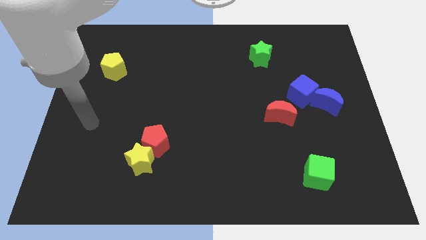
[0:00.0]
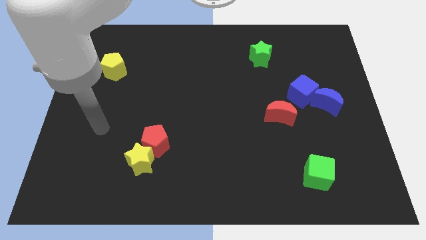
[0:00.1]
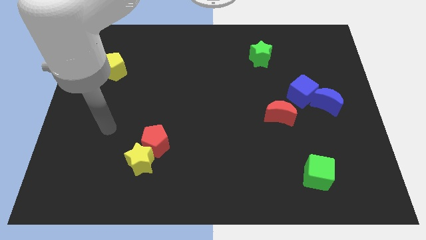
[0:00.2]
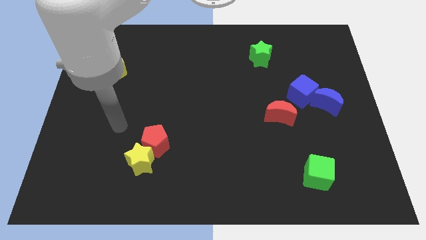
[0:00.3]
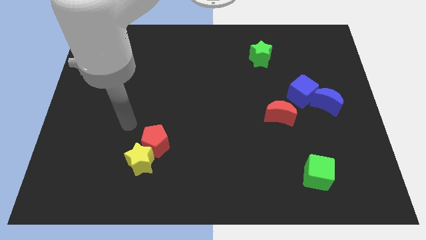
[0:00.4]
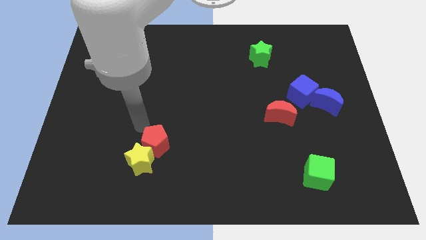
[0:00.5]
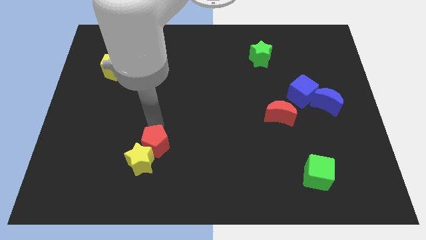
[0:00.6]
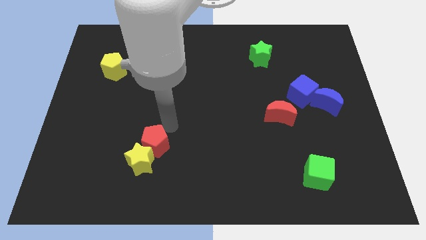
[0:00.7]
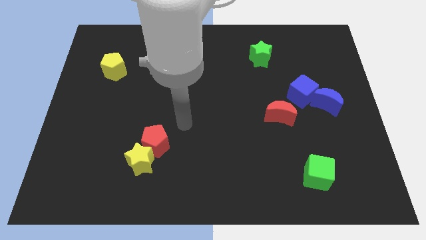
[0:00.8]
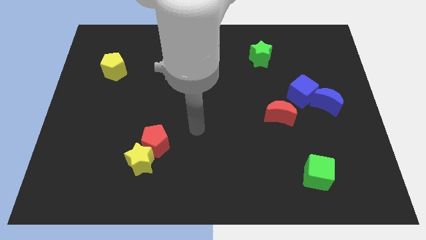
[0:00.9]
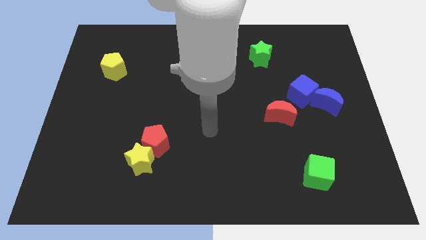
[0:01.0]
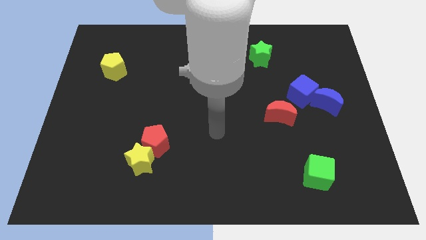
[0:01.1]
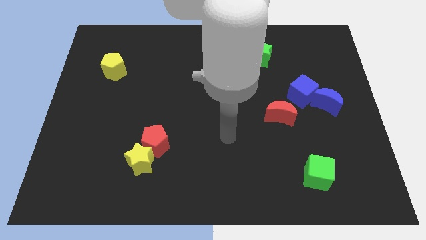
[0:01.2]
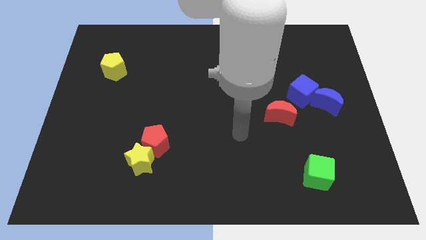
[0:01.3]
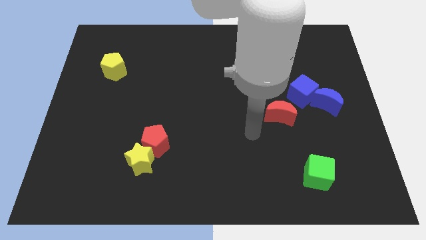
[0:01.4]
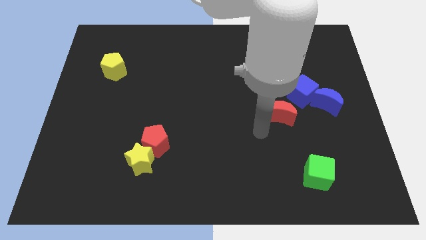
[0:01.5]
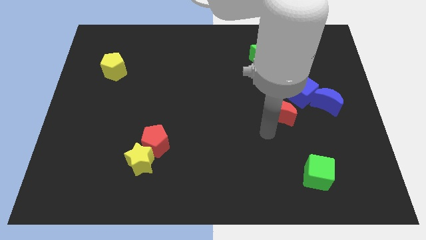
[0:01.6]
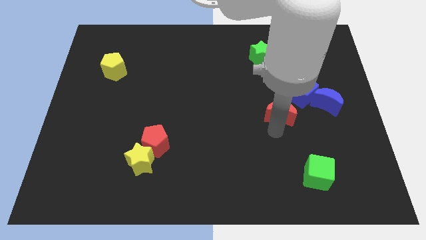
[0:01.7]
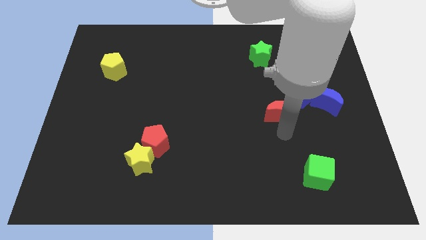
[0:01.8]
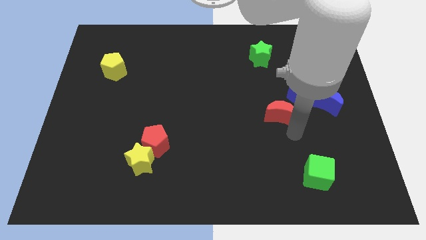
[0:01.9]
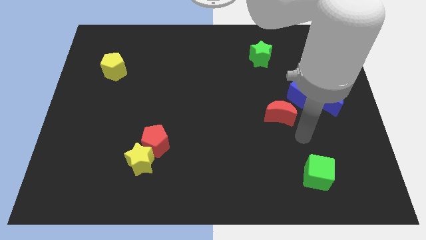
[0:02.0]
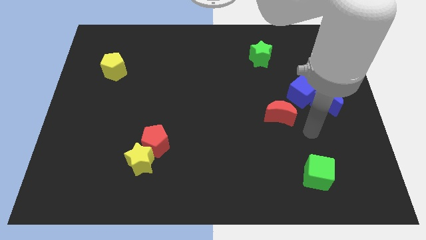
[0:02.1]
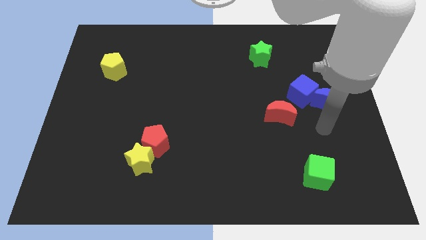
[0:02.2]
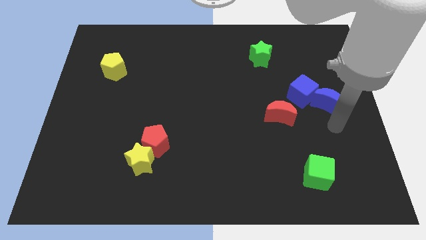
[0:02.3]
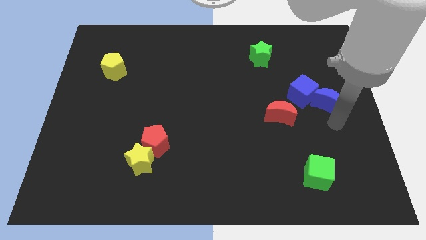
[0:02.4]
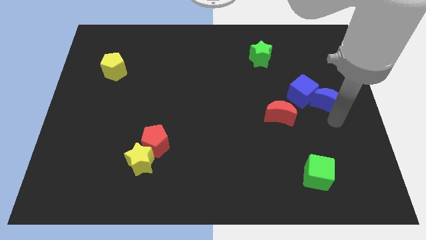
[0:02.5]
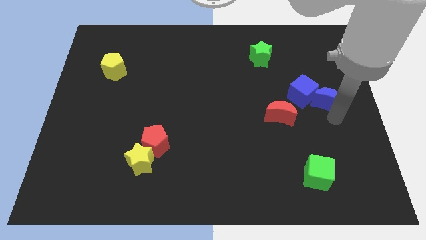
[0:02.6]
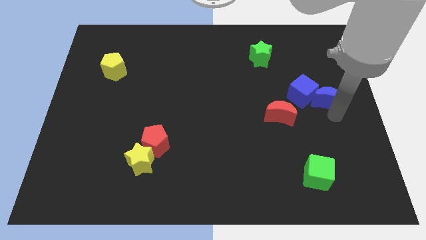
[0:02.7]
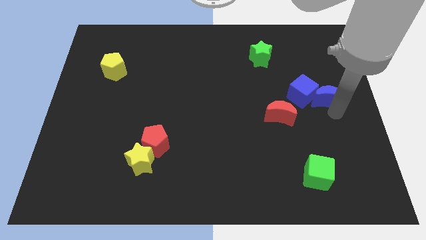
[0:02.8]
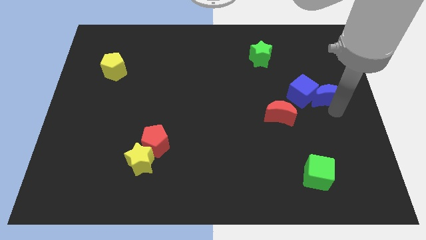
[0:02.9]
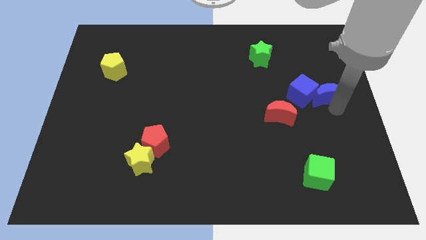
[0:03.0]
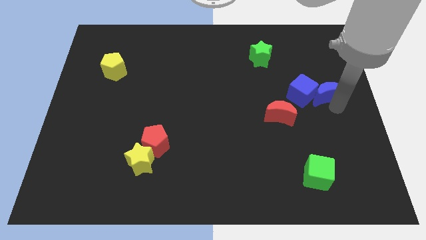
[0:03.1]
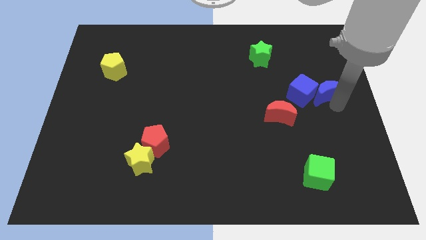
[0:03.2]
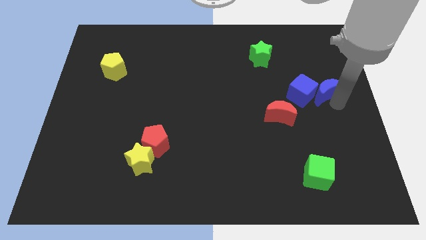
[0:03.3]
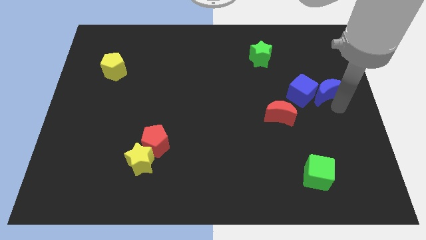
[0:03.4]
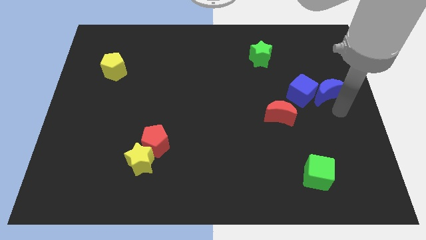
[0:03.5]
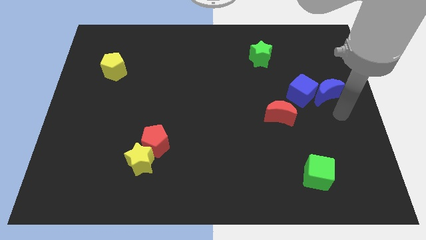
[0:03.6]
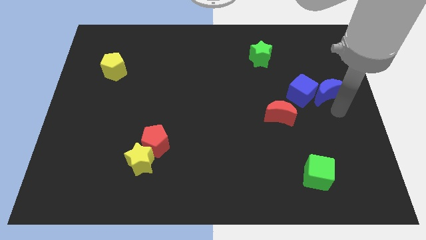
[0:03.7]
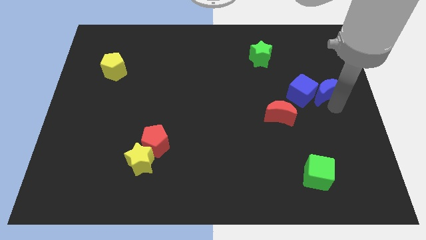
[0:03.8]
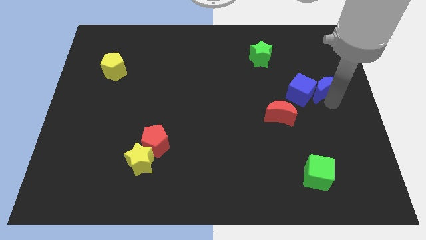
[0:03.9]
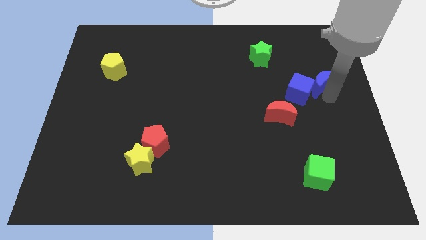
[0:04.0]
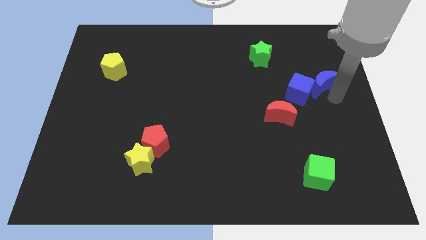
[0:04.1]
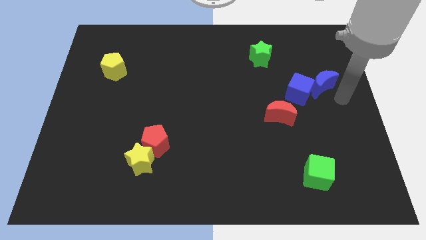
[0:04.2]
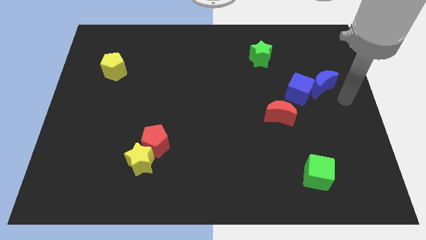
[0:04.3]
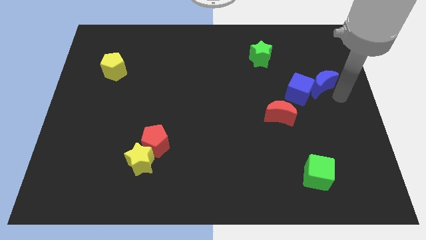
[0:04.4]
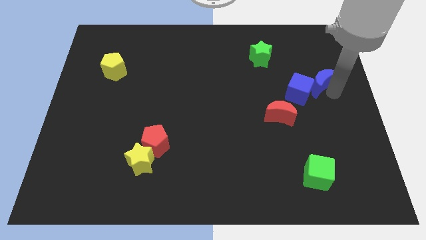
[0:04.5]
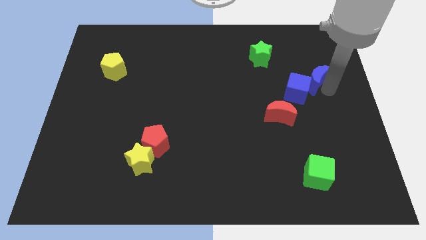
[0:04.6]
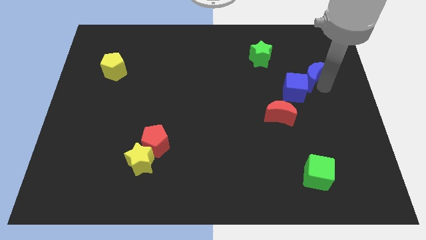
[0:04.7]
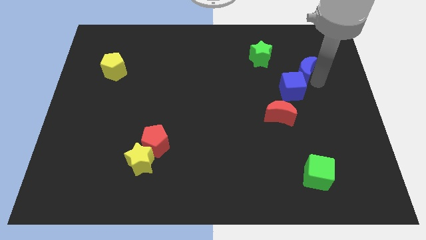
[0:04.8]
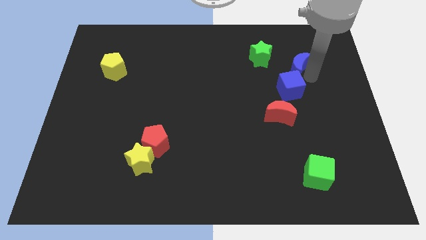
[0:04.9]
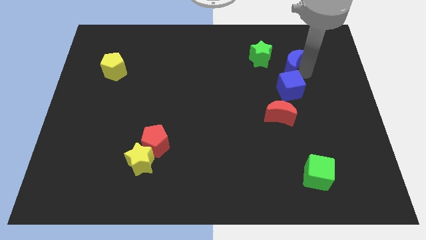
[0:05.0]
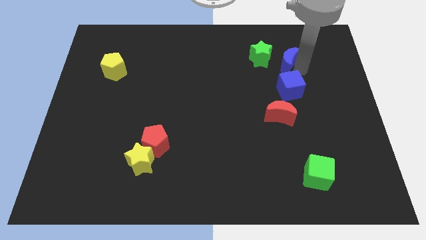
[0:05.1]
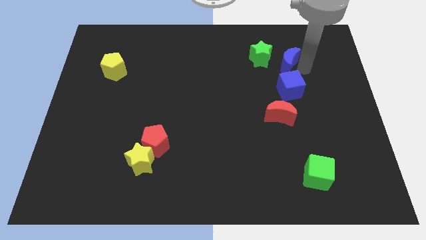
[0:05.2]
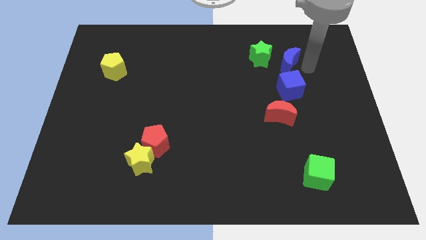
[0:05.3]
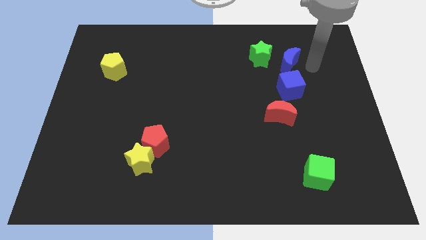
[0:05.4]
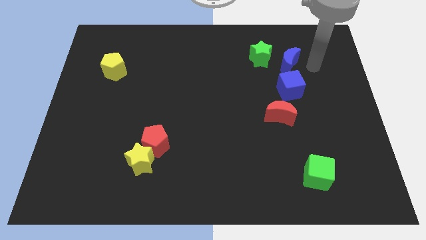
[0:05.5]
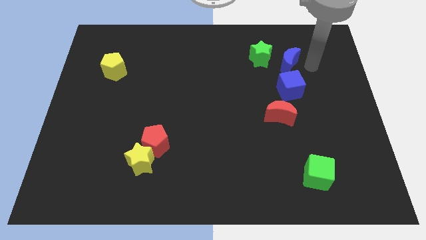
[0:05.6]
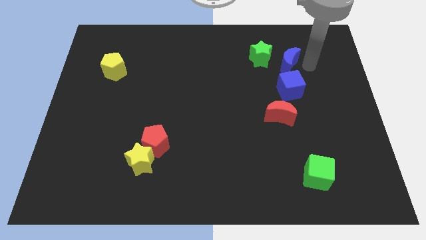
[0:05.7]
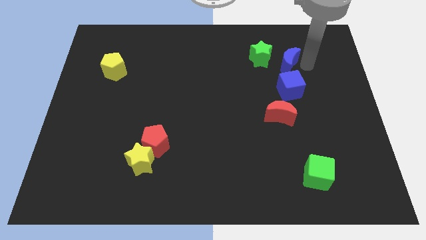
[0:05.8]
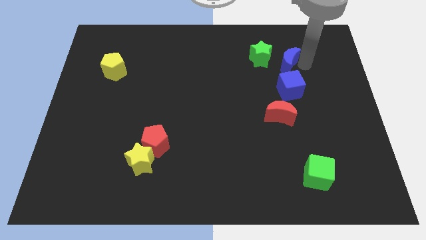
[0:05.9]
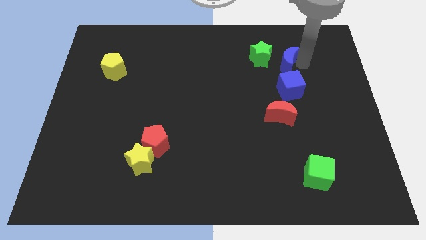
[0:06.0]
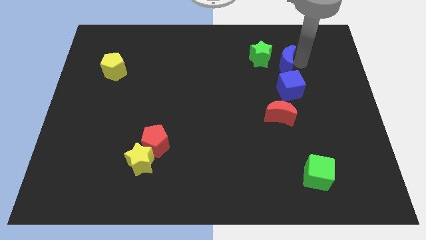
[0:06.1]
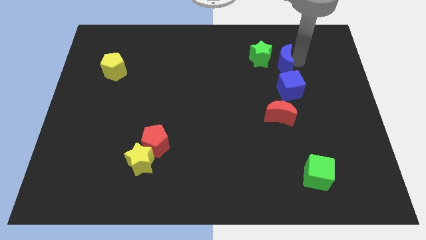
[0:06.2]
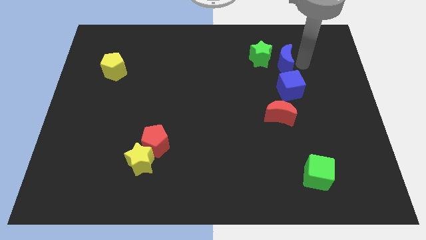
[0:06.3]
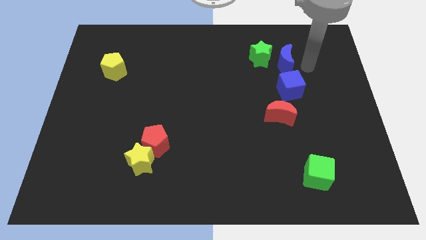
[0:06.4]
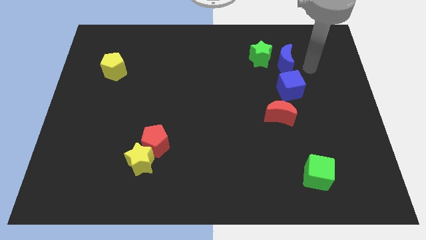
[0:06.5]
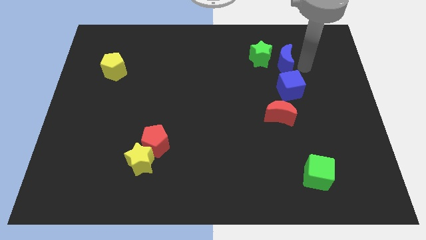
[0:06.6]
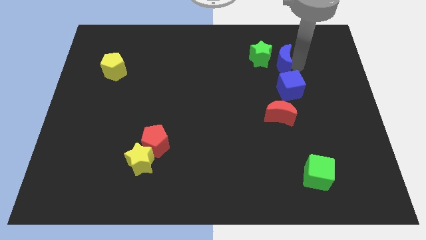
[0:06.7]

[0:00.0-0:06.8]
move the blue moon to the green star

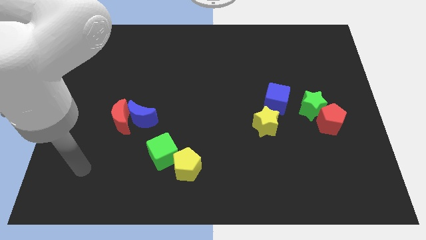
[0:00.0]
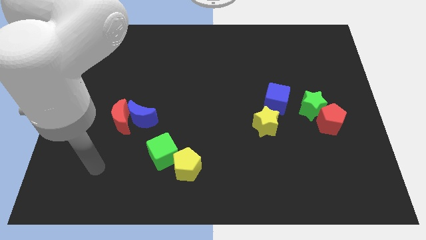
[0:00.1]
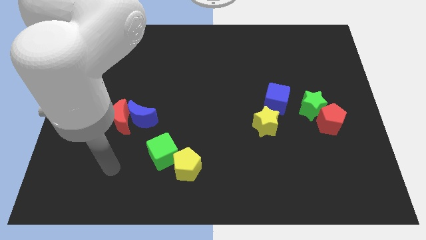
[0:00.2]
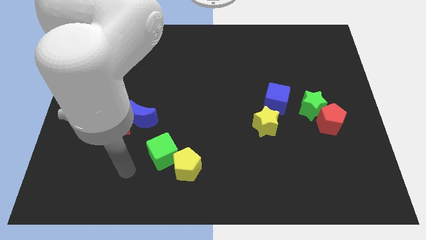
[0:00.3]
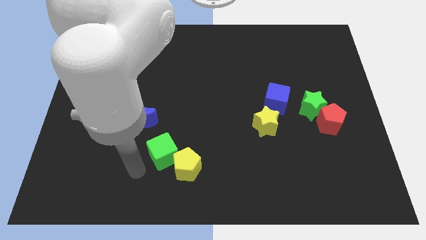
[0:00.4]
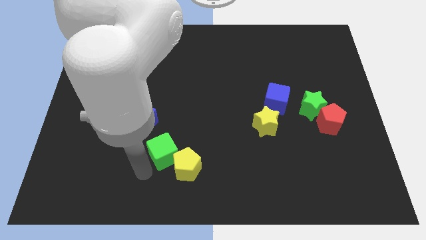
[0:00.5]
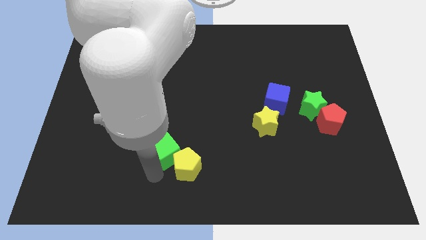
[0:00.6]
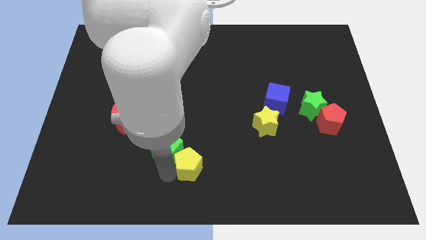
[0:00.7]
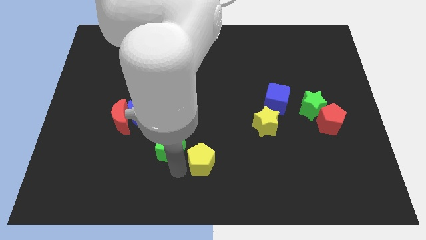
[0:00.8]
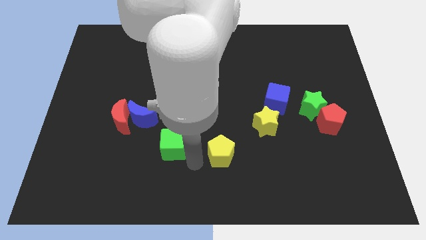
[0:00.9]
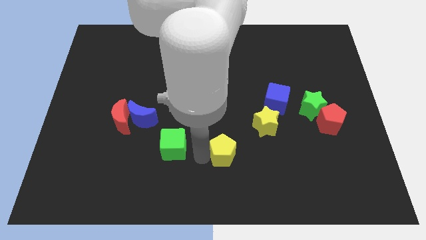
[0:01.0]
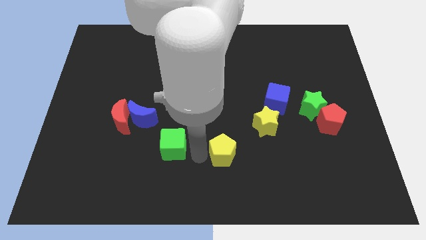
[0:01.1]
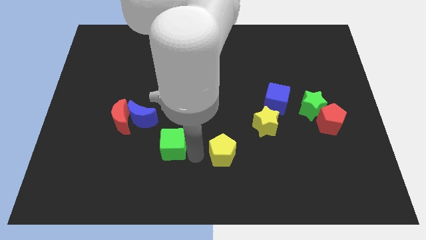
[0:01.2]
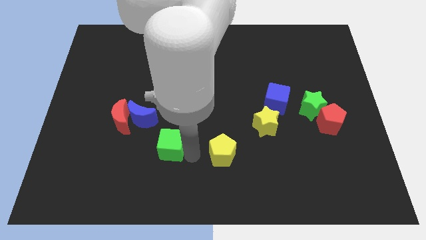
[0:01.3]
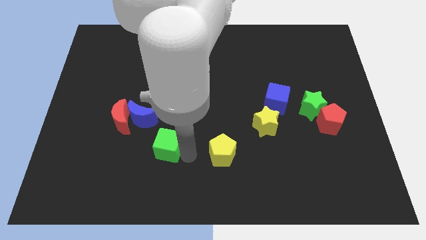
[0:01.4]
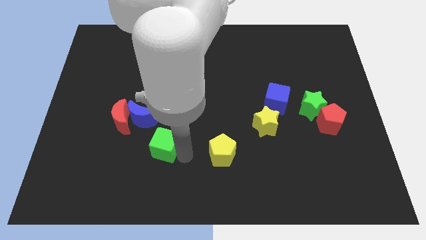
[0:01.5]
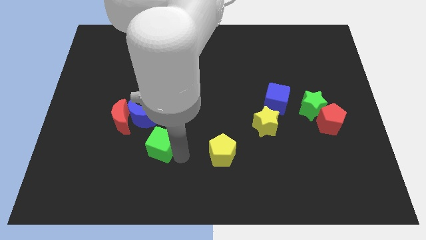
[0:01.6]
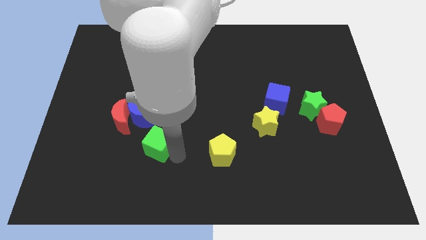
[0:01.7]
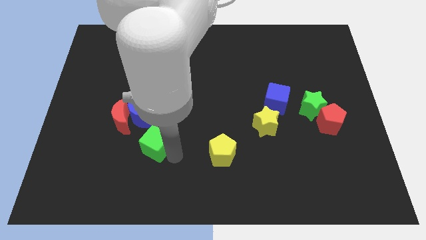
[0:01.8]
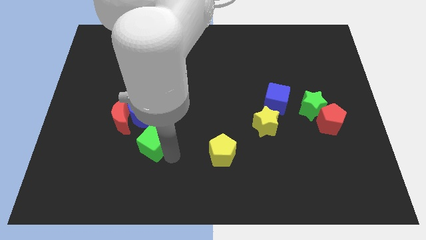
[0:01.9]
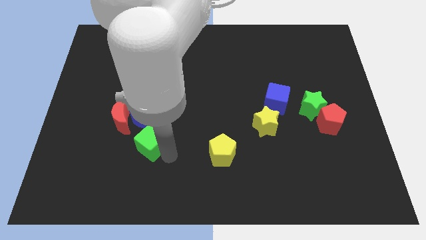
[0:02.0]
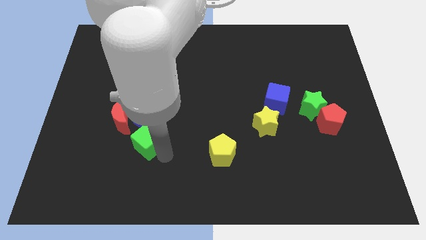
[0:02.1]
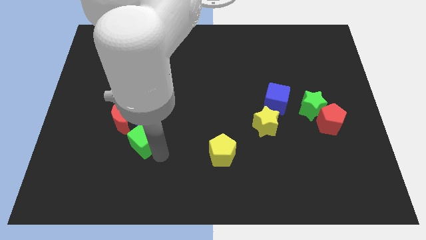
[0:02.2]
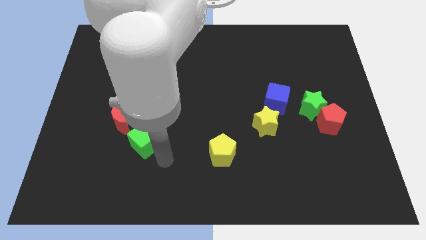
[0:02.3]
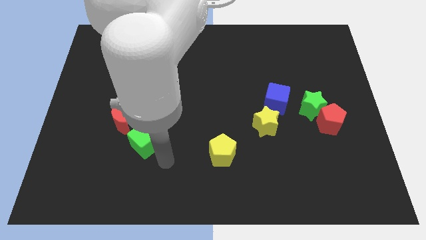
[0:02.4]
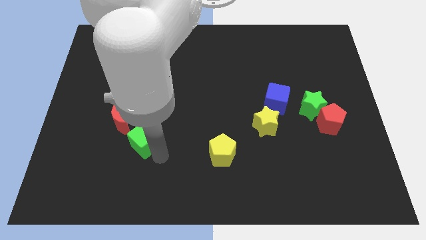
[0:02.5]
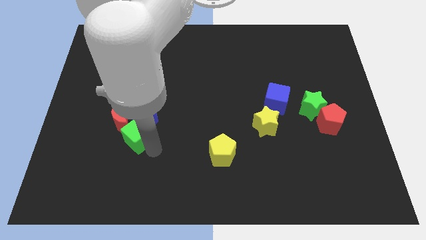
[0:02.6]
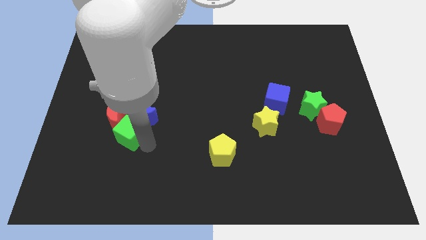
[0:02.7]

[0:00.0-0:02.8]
put the green cube to the red moon
